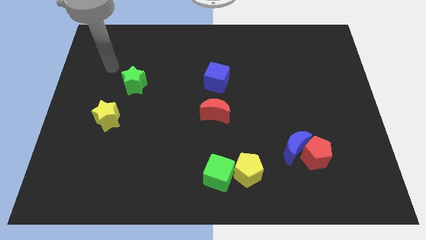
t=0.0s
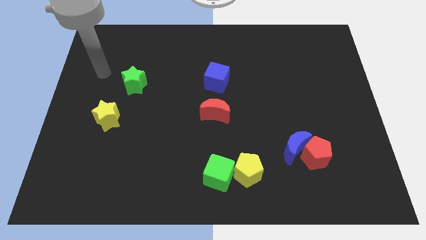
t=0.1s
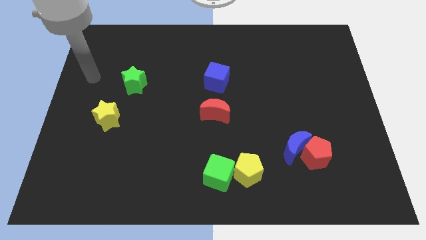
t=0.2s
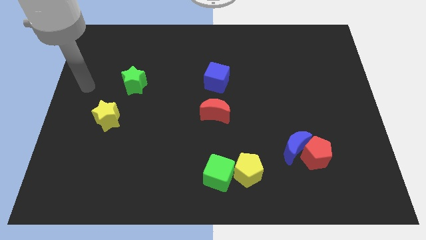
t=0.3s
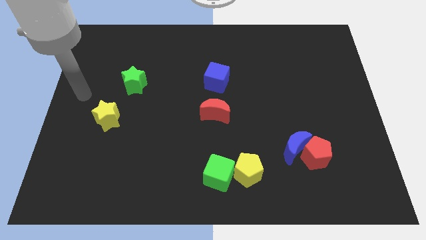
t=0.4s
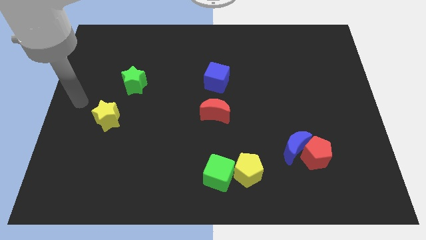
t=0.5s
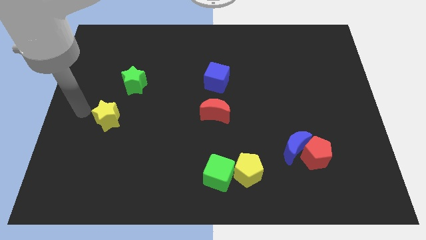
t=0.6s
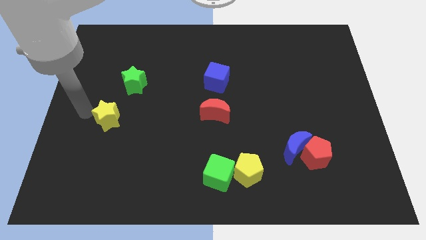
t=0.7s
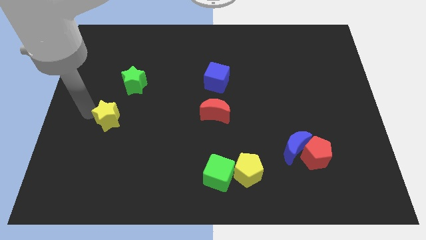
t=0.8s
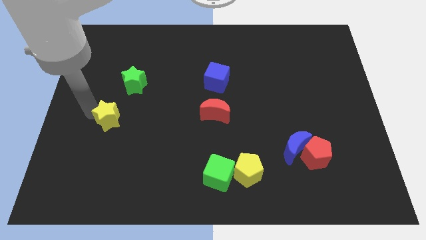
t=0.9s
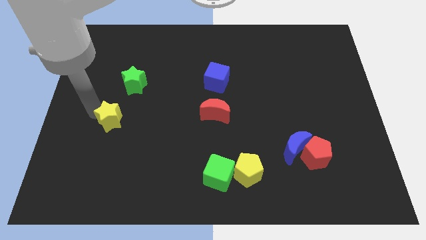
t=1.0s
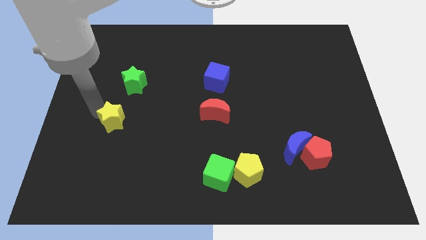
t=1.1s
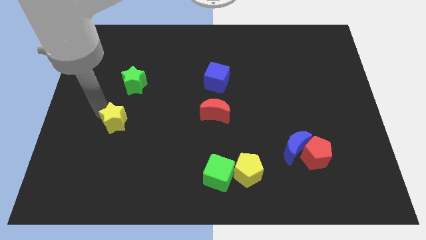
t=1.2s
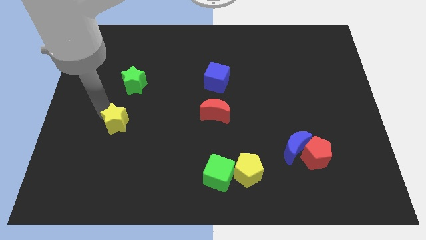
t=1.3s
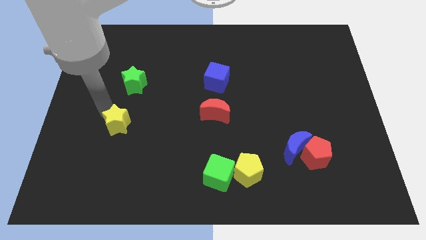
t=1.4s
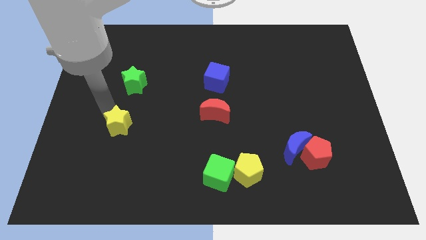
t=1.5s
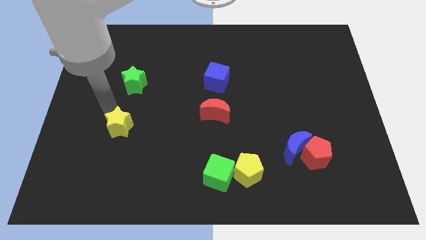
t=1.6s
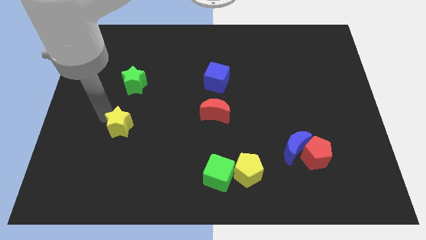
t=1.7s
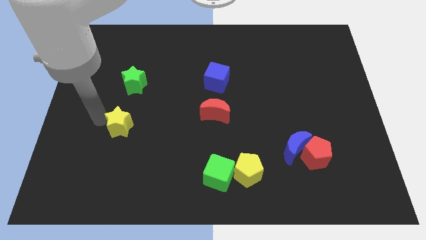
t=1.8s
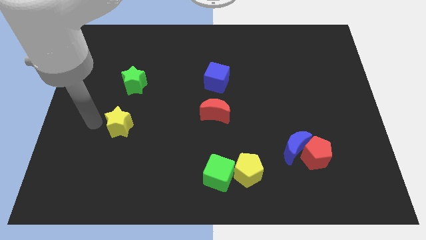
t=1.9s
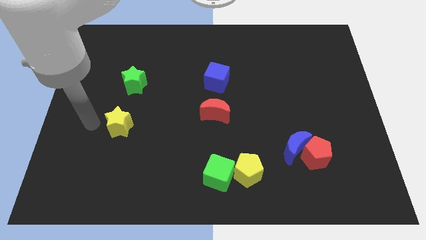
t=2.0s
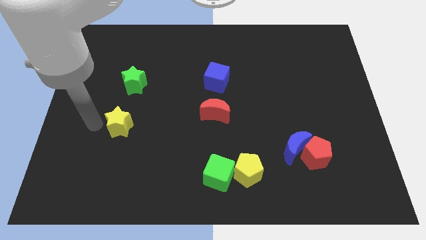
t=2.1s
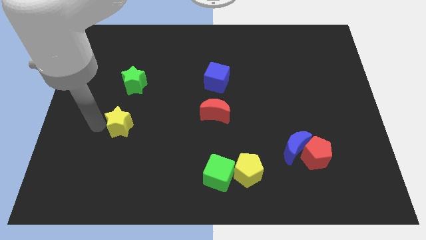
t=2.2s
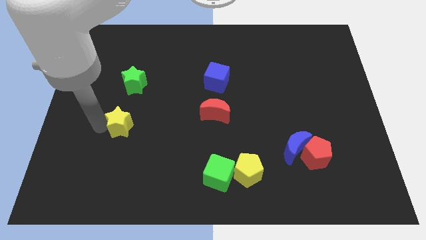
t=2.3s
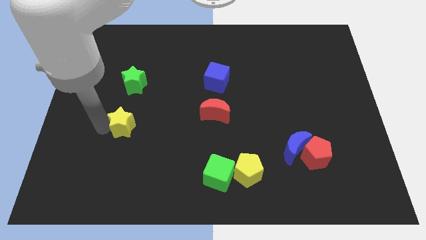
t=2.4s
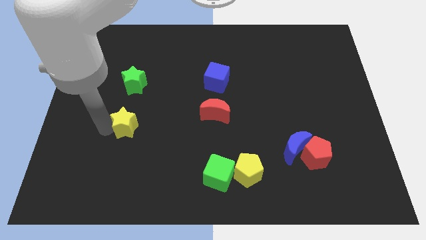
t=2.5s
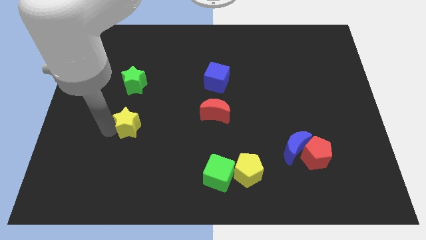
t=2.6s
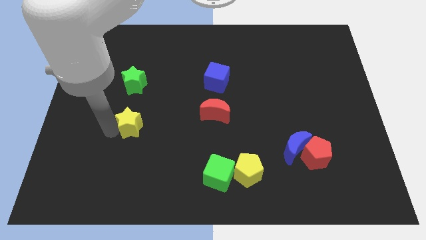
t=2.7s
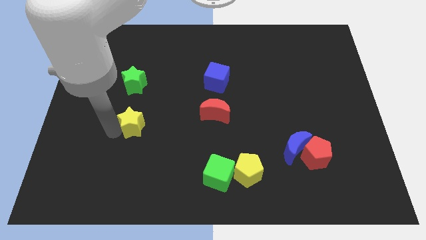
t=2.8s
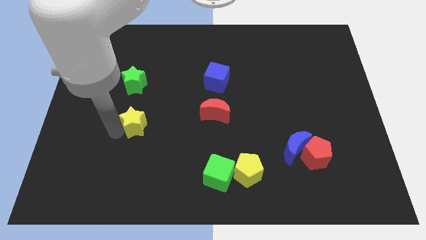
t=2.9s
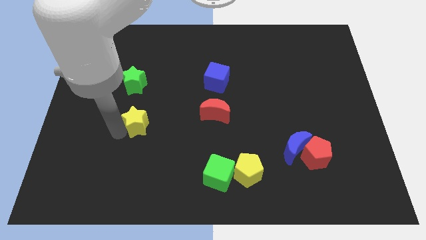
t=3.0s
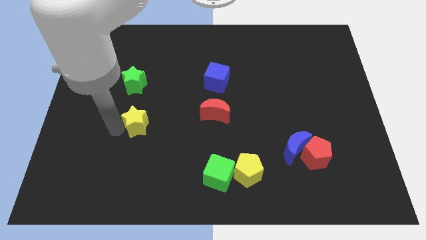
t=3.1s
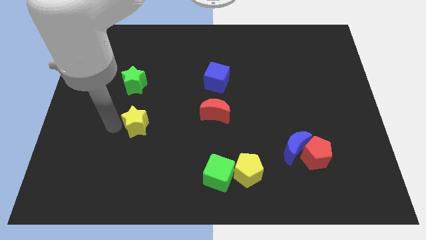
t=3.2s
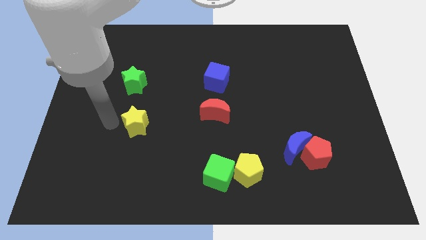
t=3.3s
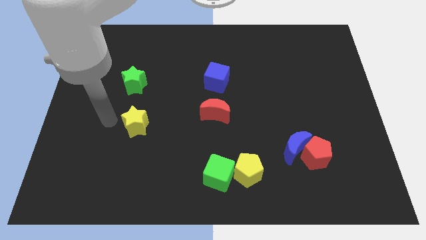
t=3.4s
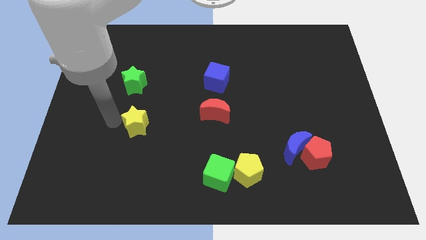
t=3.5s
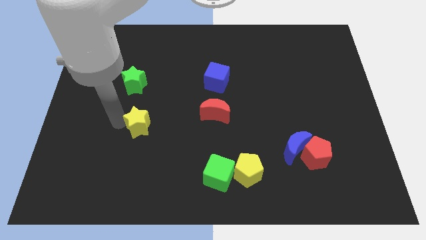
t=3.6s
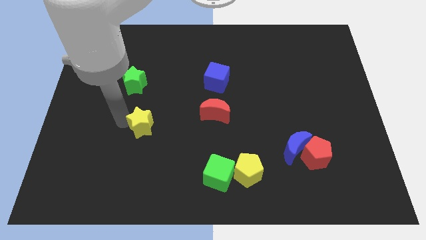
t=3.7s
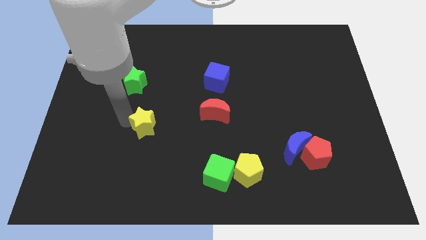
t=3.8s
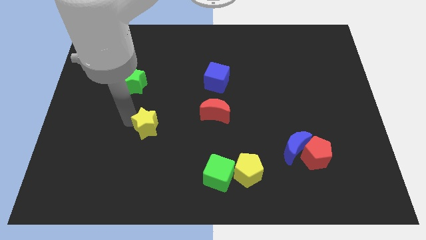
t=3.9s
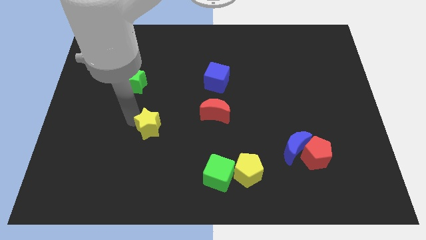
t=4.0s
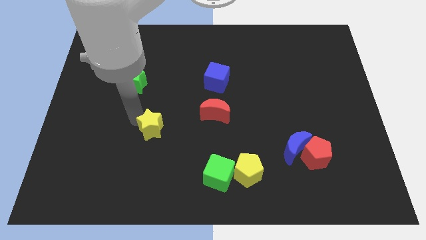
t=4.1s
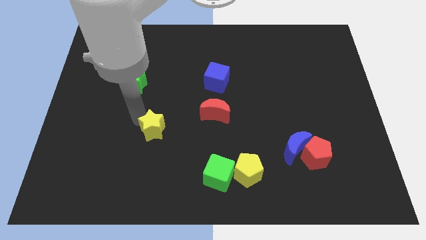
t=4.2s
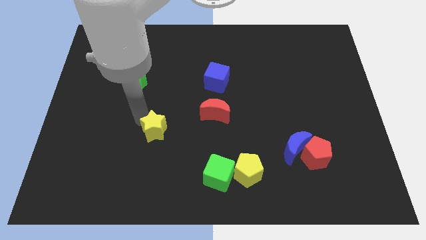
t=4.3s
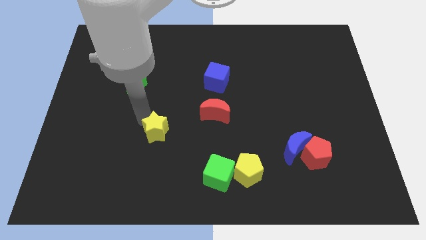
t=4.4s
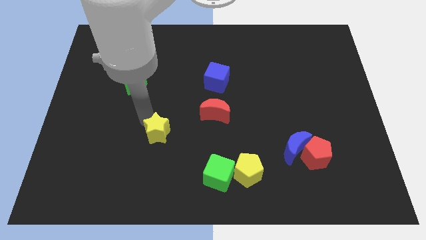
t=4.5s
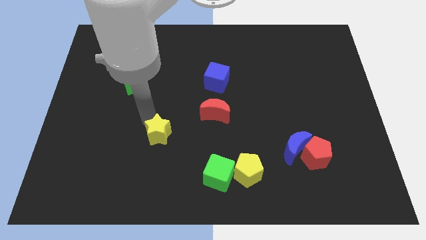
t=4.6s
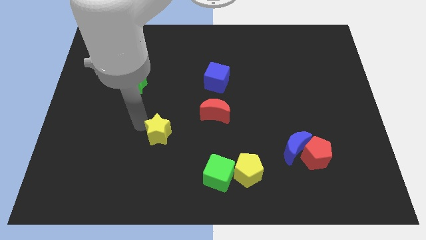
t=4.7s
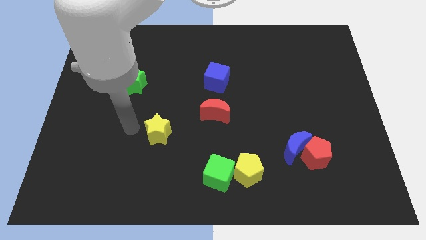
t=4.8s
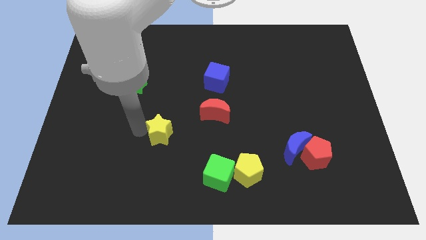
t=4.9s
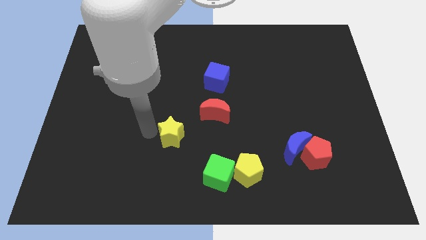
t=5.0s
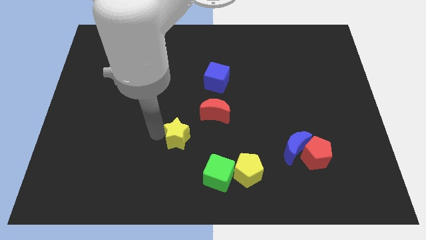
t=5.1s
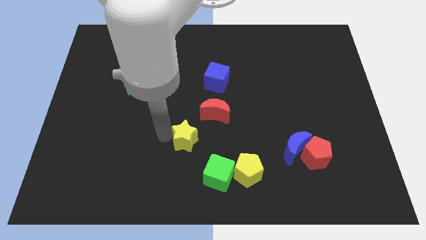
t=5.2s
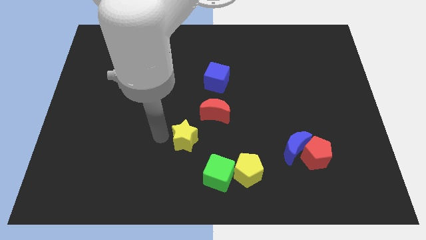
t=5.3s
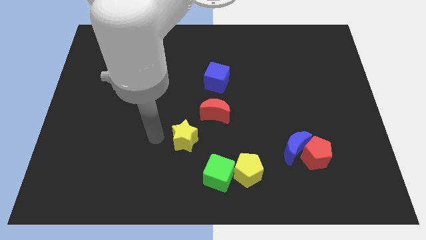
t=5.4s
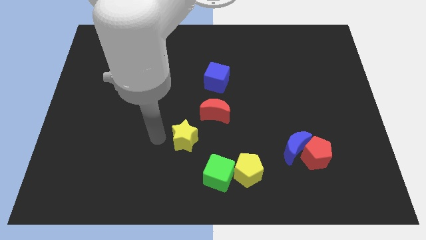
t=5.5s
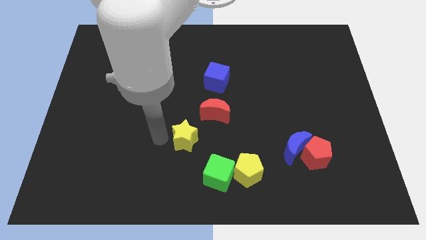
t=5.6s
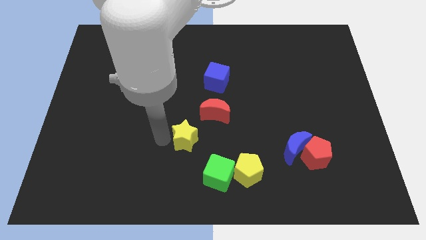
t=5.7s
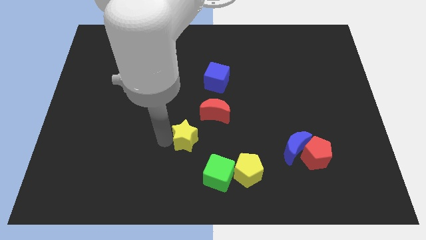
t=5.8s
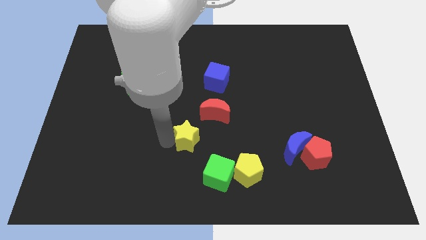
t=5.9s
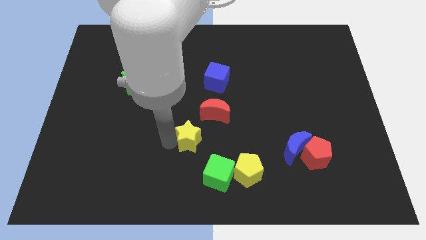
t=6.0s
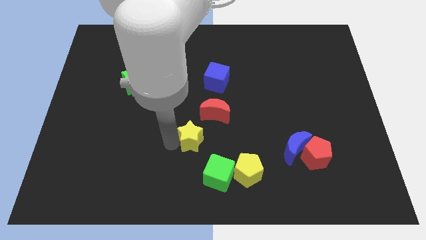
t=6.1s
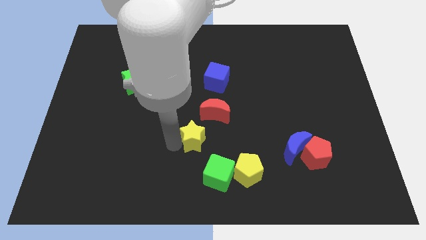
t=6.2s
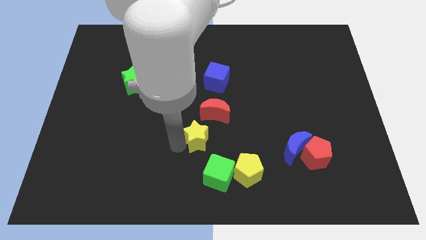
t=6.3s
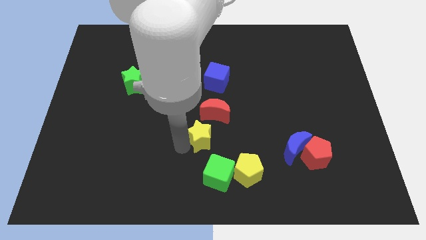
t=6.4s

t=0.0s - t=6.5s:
slide the yellow star right

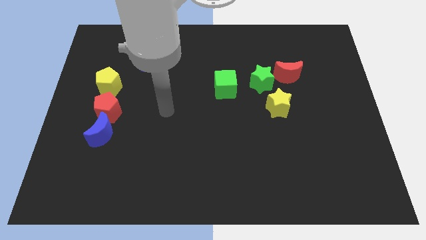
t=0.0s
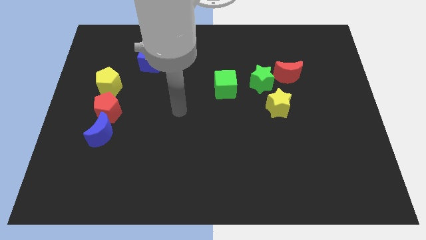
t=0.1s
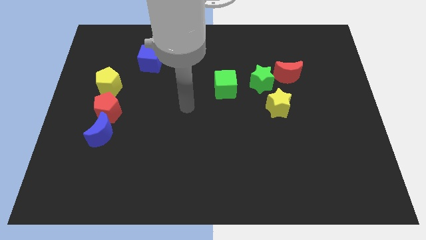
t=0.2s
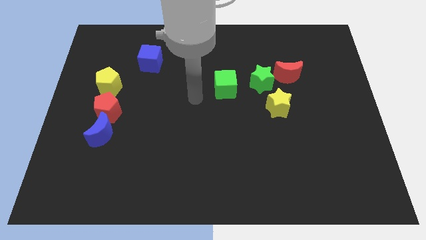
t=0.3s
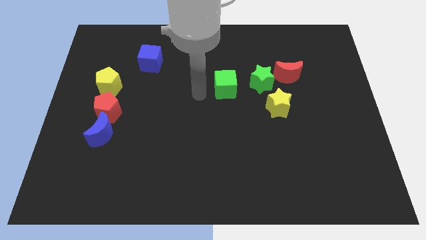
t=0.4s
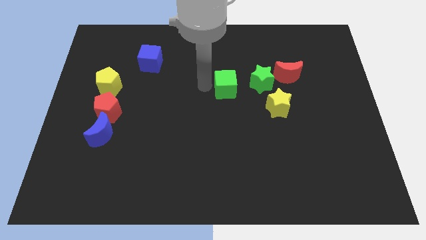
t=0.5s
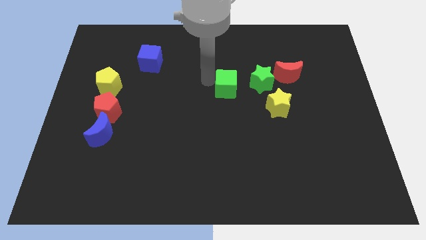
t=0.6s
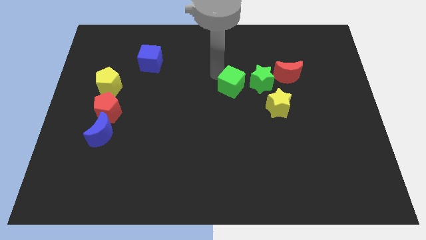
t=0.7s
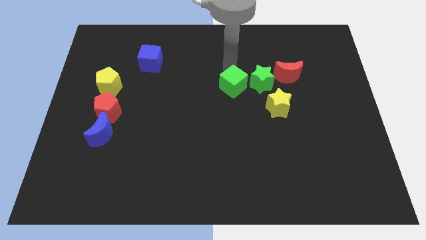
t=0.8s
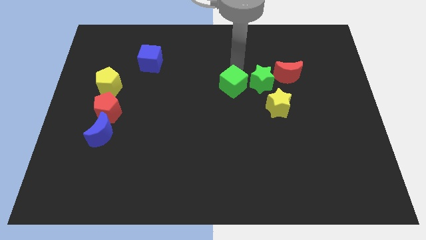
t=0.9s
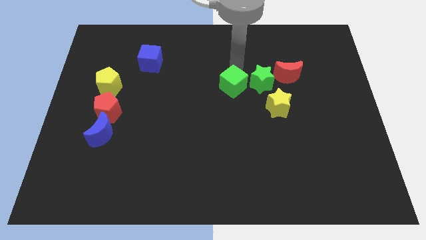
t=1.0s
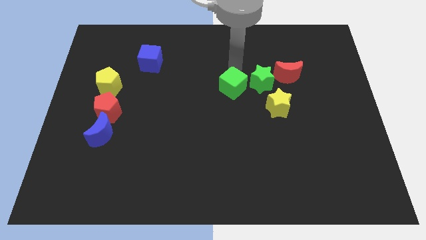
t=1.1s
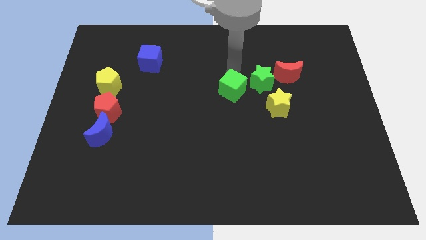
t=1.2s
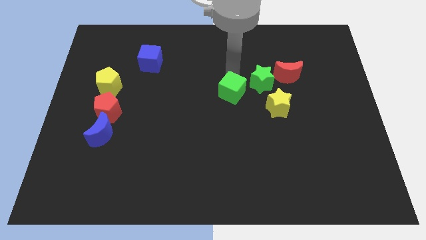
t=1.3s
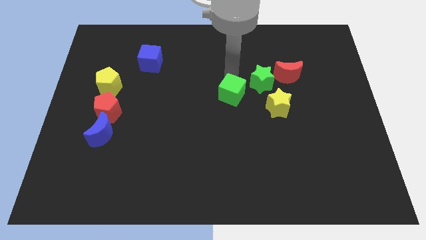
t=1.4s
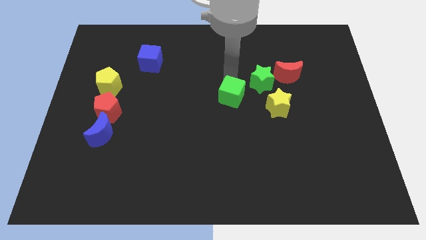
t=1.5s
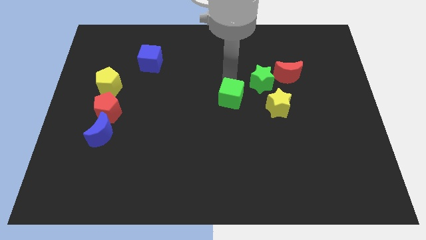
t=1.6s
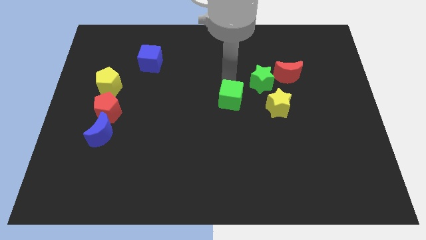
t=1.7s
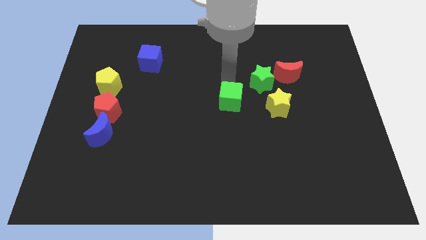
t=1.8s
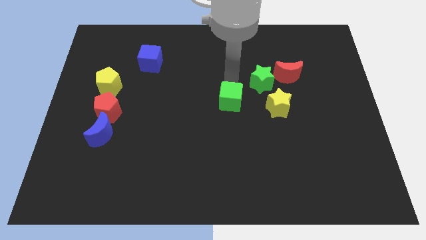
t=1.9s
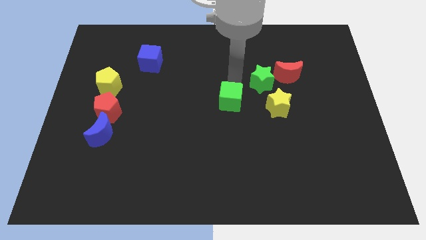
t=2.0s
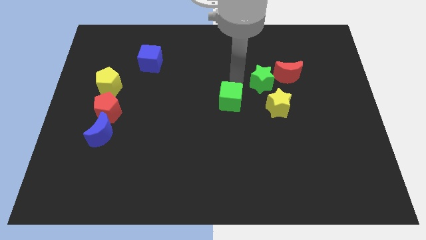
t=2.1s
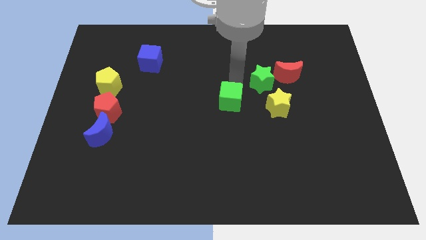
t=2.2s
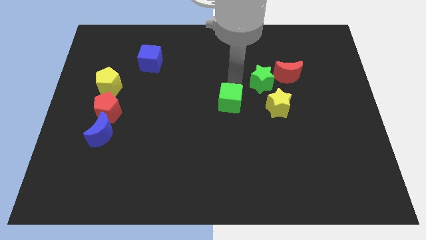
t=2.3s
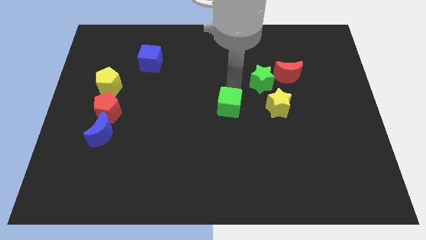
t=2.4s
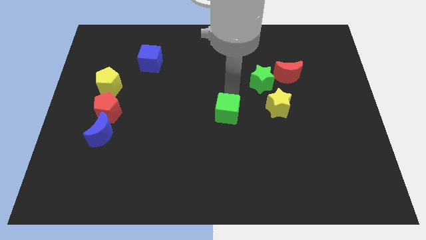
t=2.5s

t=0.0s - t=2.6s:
move the green cube a little bit downwards
